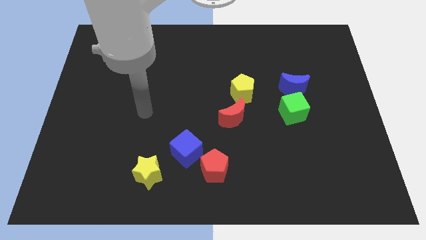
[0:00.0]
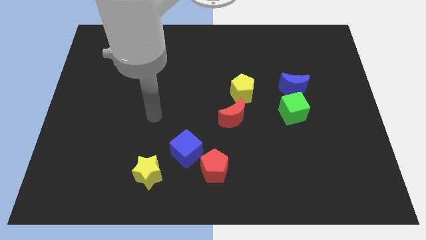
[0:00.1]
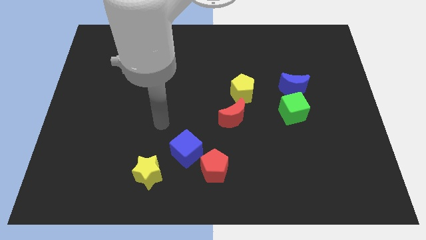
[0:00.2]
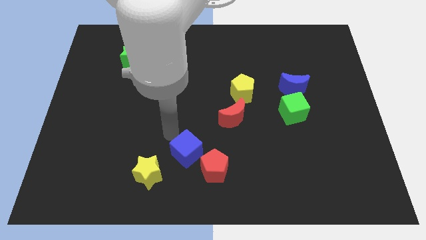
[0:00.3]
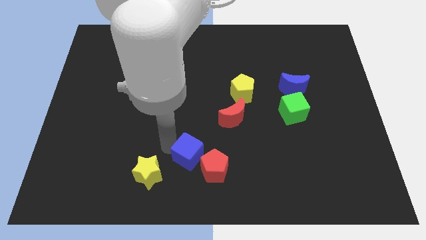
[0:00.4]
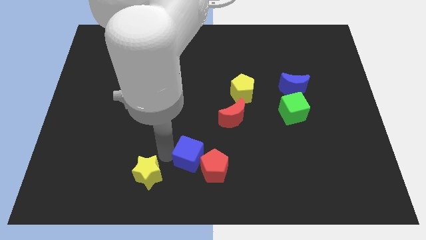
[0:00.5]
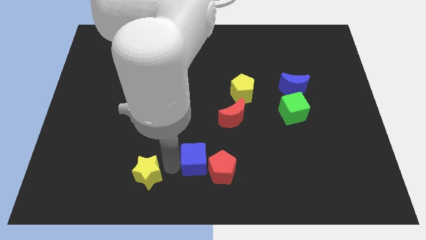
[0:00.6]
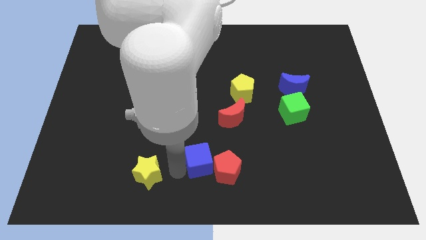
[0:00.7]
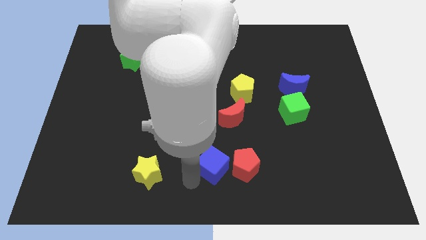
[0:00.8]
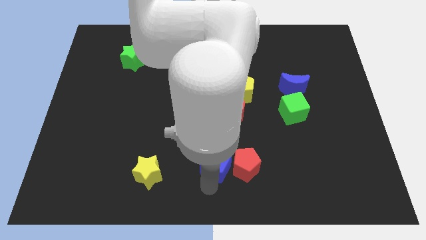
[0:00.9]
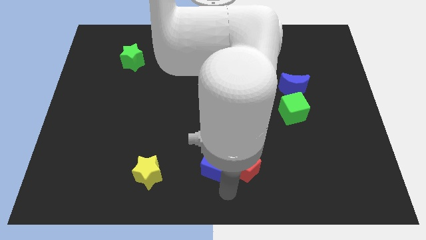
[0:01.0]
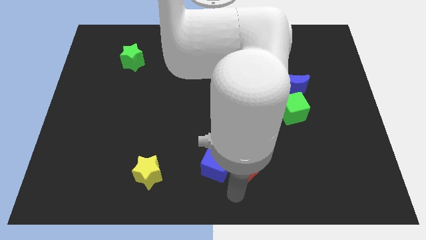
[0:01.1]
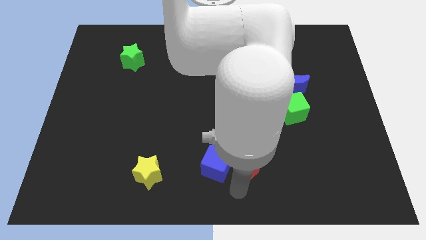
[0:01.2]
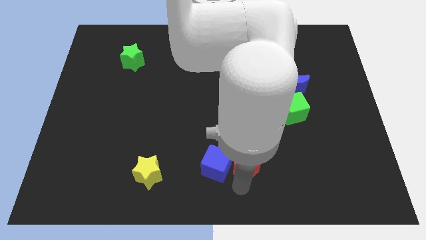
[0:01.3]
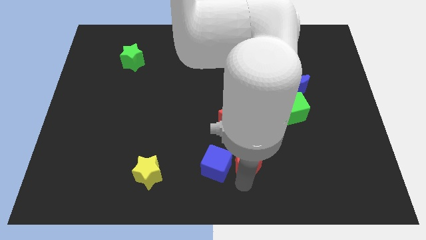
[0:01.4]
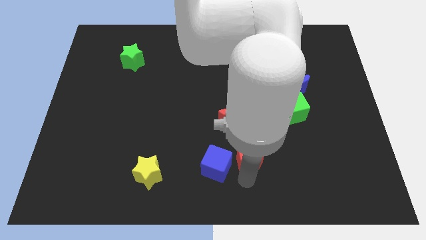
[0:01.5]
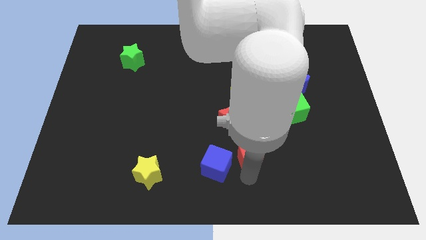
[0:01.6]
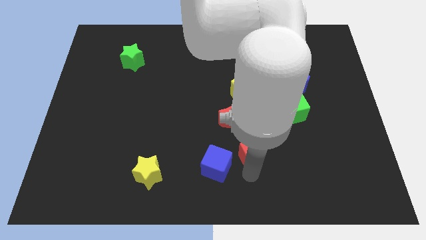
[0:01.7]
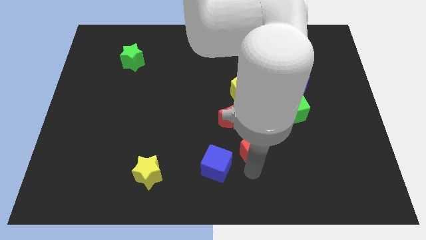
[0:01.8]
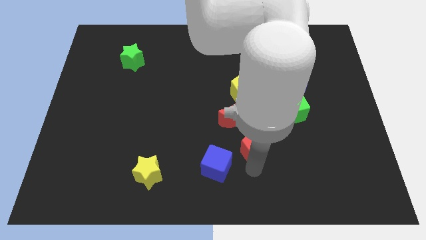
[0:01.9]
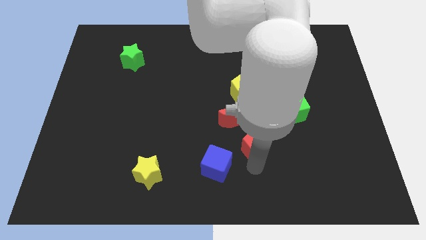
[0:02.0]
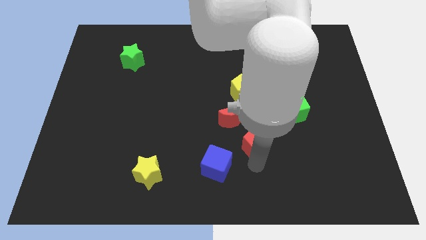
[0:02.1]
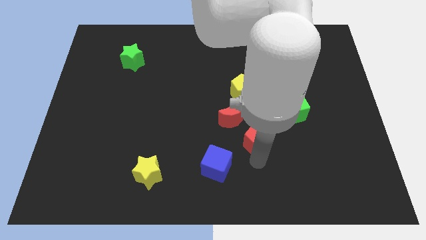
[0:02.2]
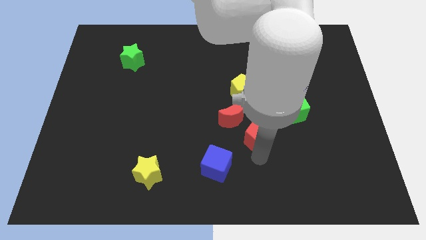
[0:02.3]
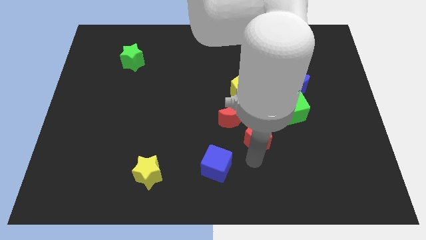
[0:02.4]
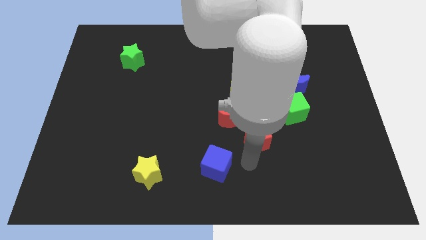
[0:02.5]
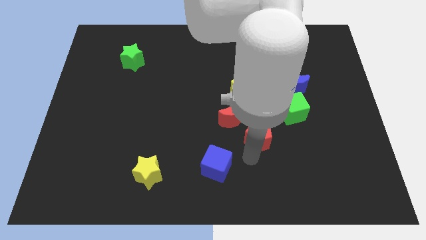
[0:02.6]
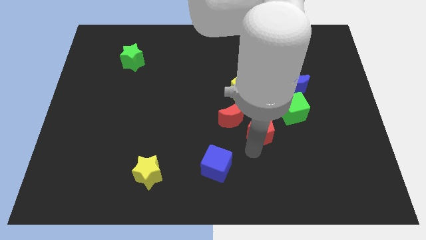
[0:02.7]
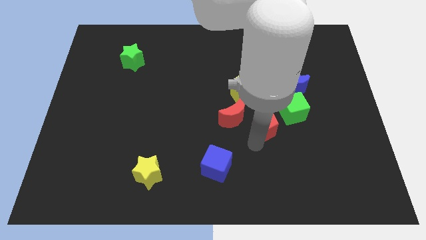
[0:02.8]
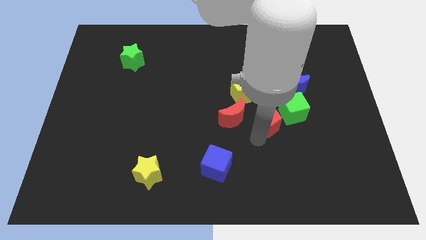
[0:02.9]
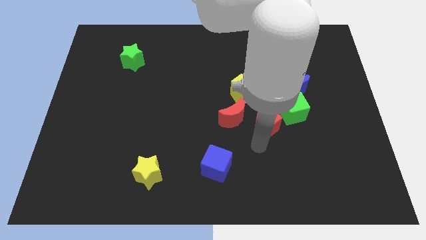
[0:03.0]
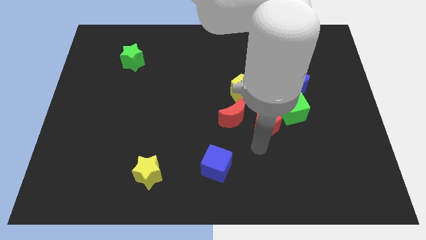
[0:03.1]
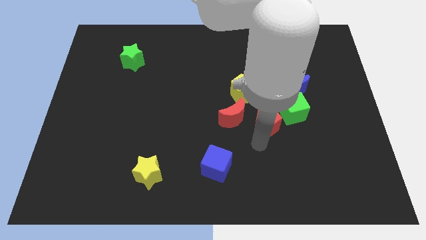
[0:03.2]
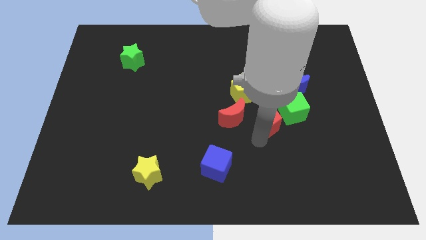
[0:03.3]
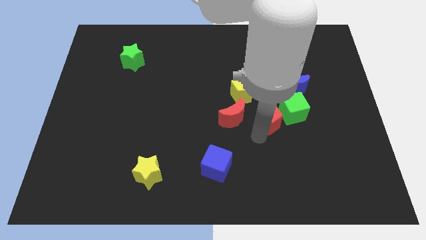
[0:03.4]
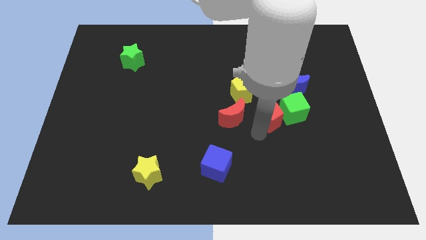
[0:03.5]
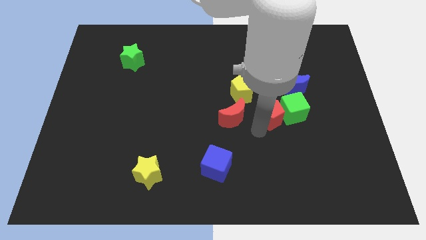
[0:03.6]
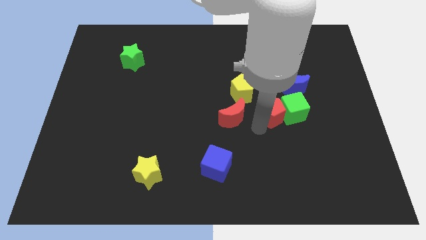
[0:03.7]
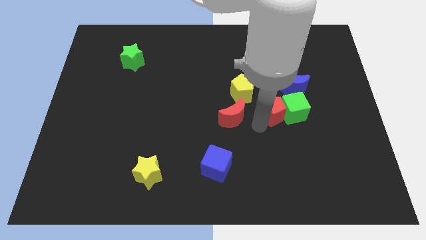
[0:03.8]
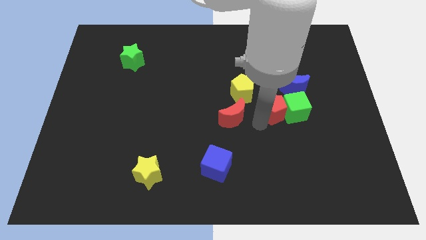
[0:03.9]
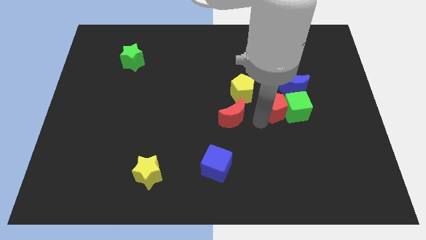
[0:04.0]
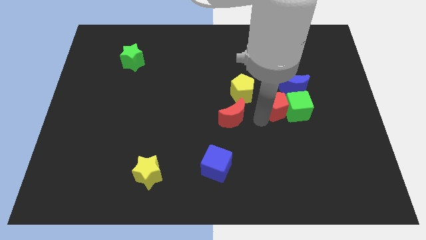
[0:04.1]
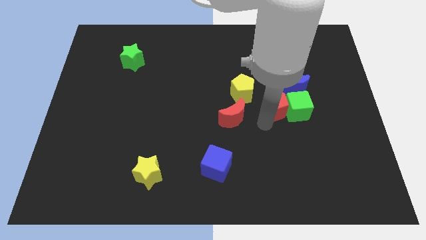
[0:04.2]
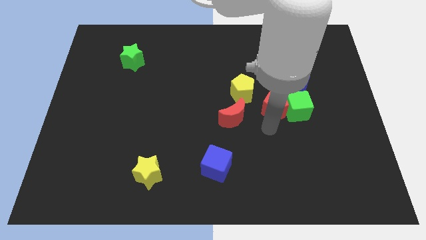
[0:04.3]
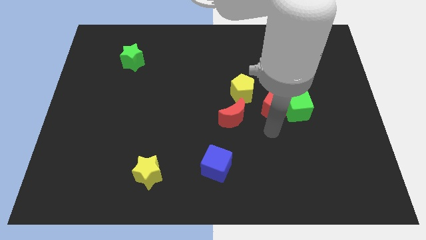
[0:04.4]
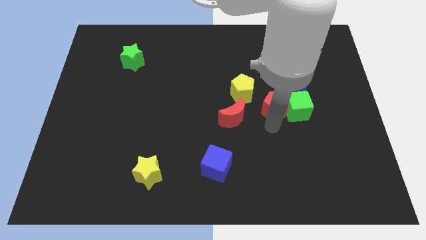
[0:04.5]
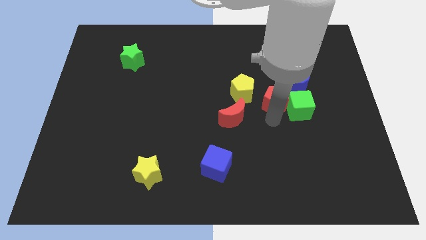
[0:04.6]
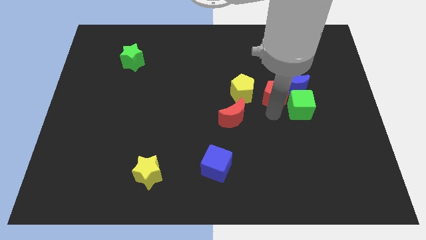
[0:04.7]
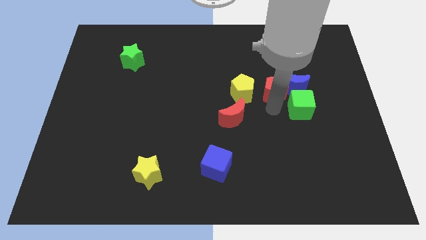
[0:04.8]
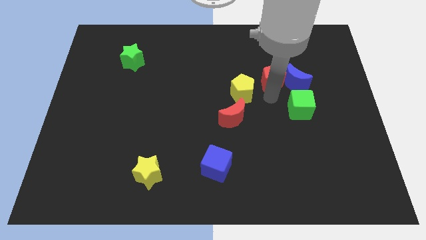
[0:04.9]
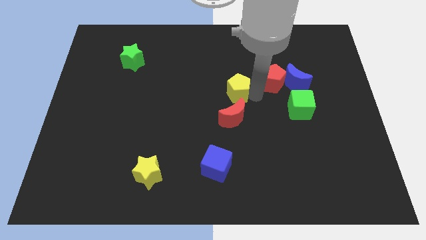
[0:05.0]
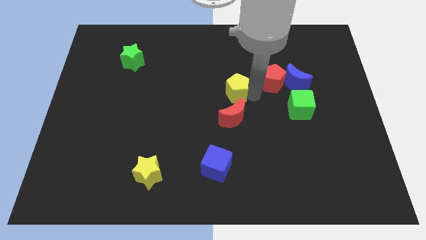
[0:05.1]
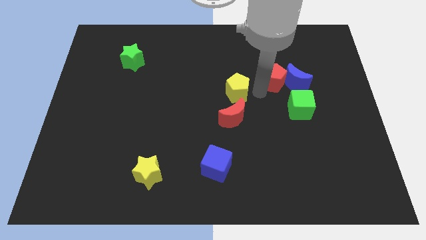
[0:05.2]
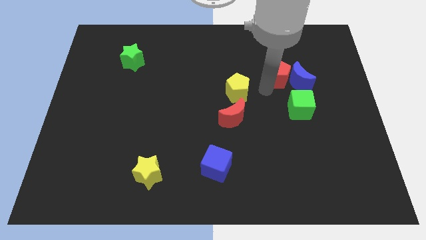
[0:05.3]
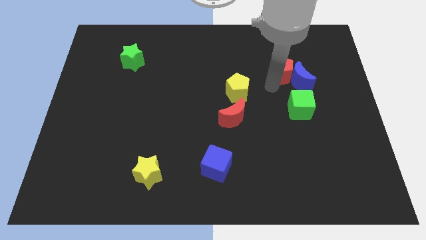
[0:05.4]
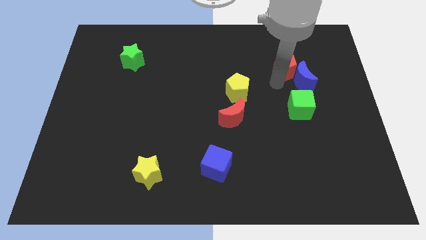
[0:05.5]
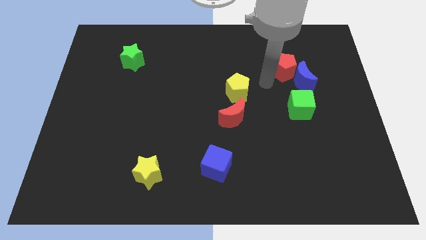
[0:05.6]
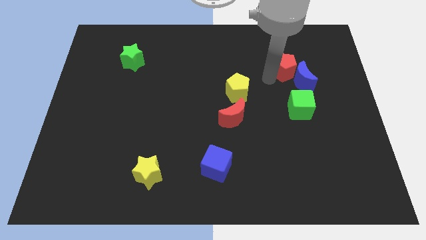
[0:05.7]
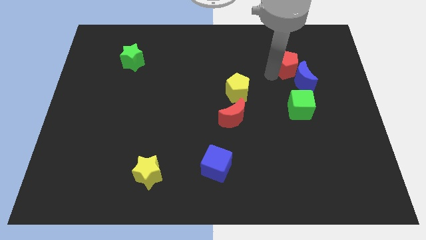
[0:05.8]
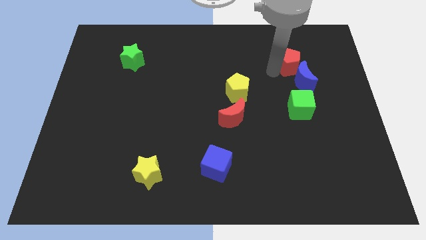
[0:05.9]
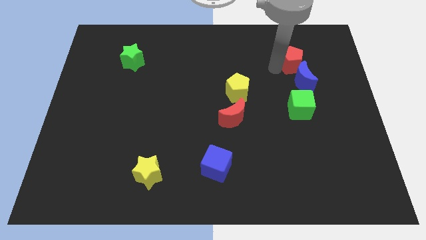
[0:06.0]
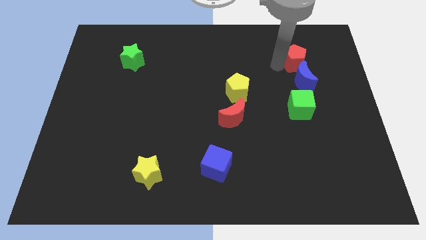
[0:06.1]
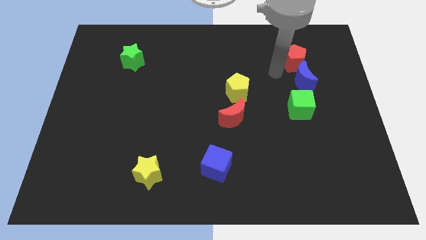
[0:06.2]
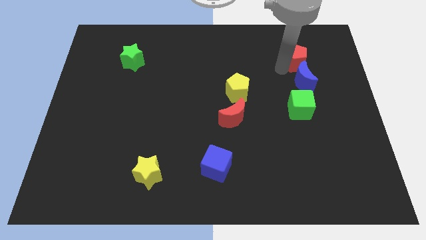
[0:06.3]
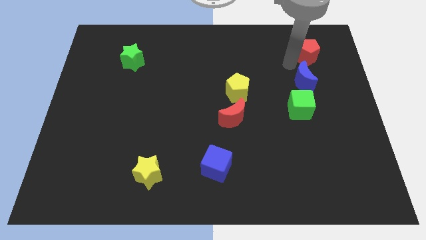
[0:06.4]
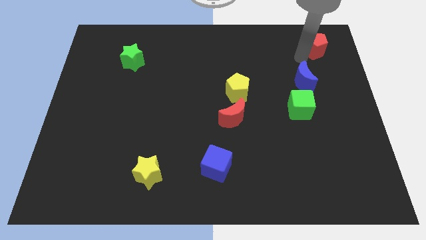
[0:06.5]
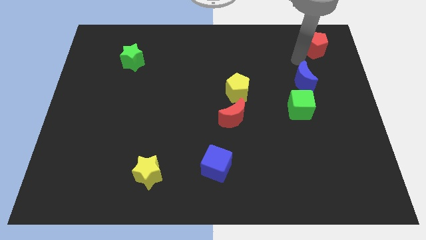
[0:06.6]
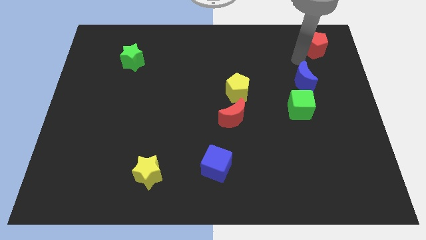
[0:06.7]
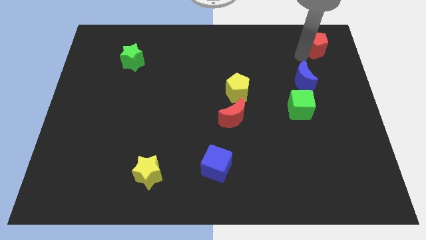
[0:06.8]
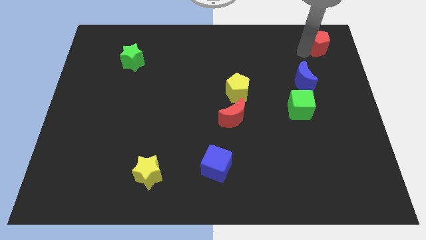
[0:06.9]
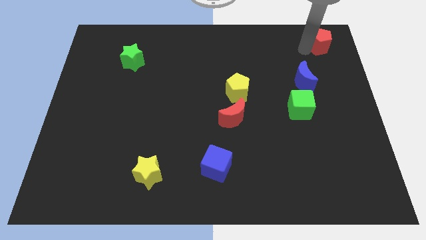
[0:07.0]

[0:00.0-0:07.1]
put the red pentagon to the top right
